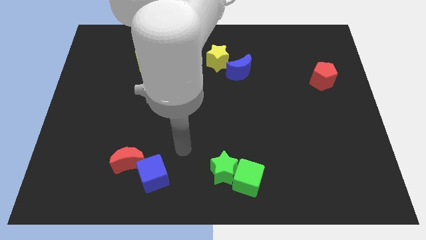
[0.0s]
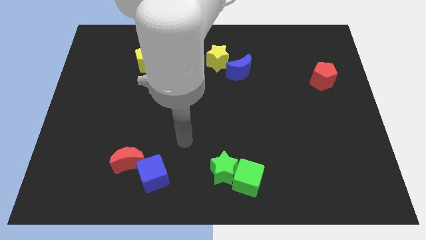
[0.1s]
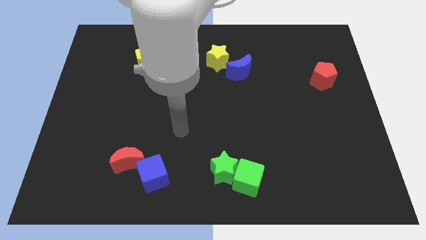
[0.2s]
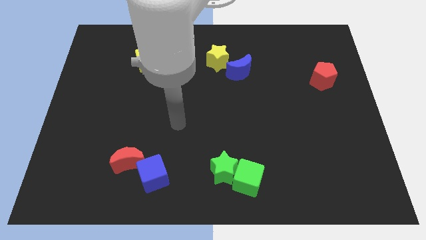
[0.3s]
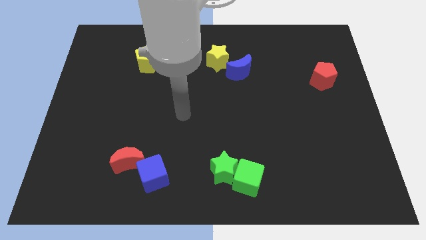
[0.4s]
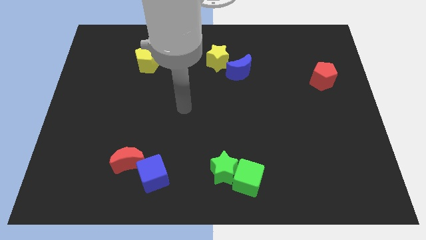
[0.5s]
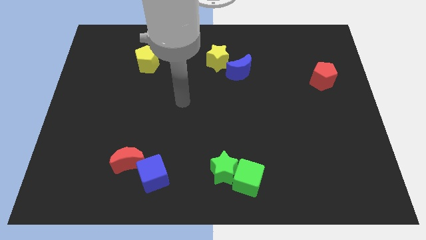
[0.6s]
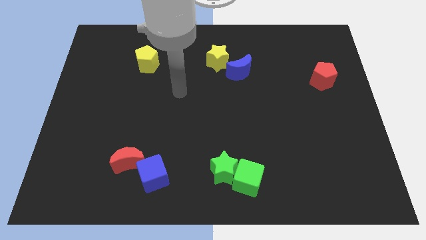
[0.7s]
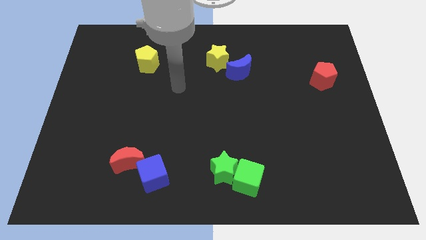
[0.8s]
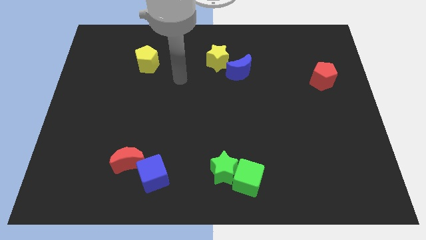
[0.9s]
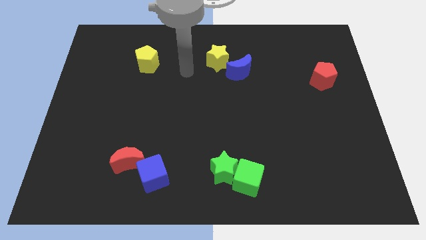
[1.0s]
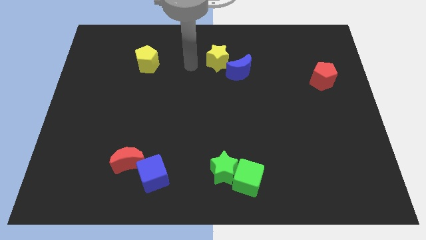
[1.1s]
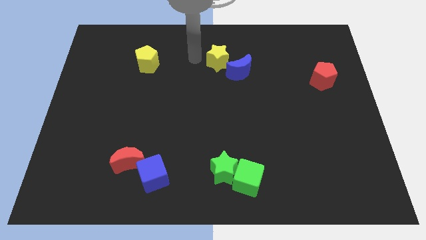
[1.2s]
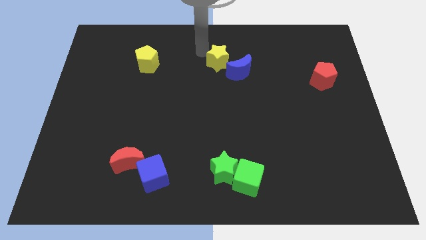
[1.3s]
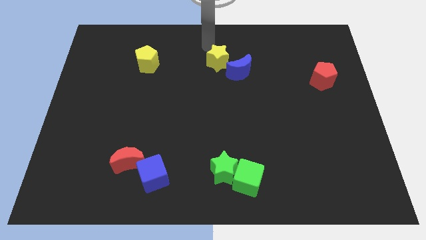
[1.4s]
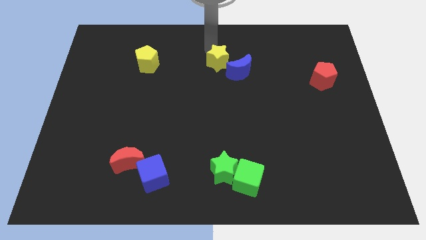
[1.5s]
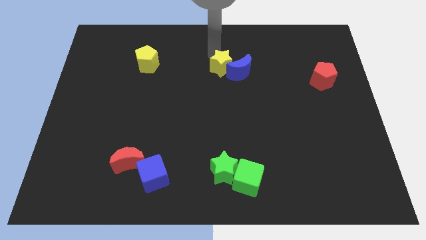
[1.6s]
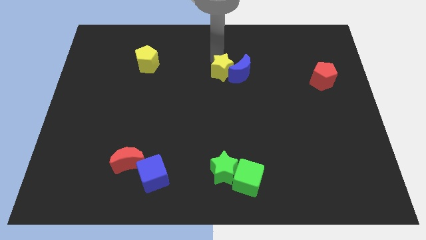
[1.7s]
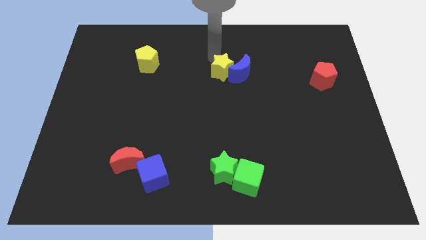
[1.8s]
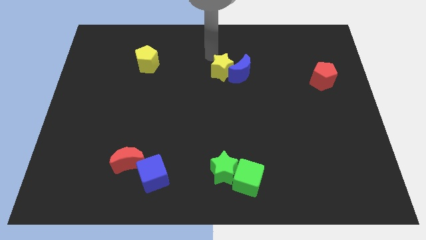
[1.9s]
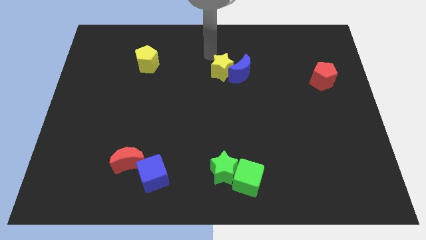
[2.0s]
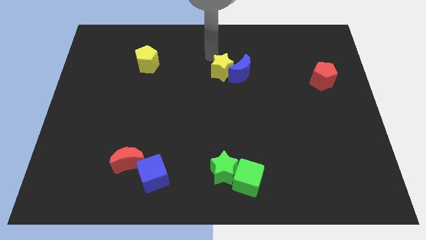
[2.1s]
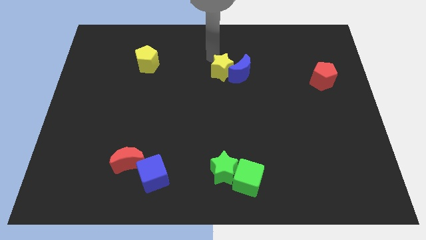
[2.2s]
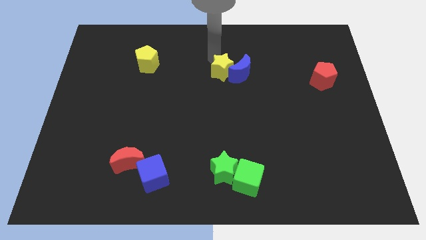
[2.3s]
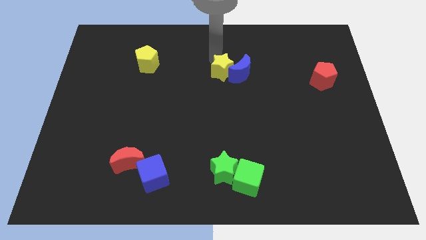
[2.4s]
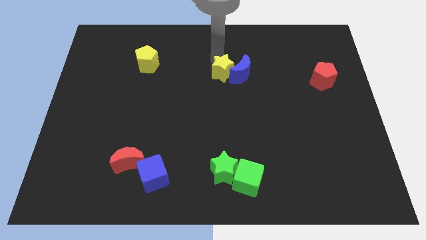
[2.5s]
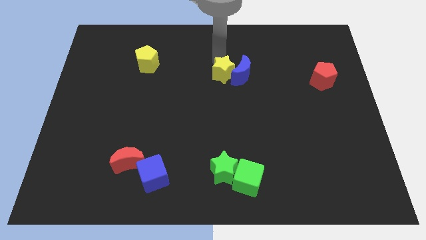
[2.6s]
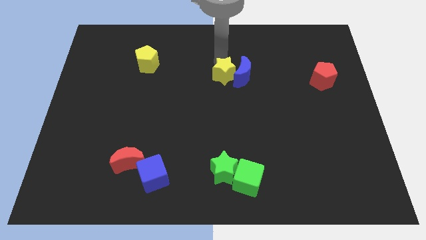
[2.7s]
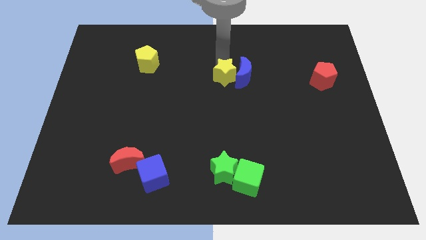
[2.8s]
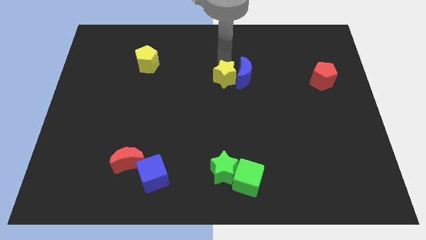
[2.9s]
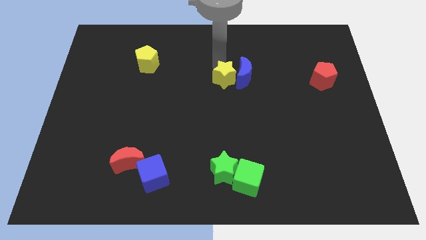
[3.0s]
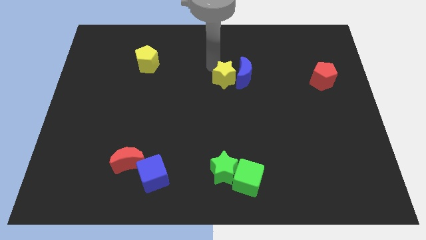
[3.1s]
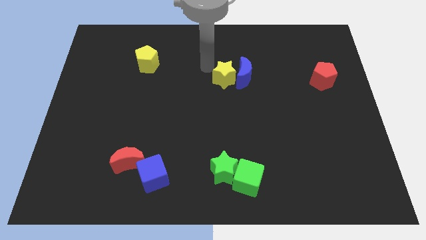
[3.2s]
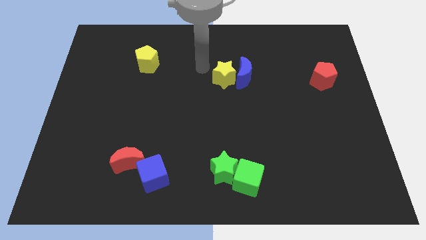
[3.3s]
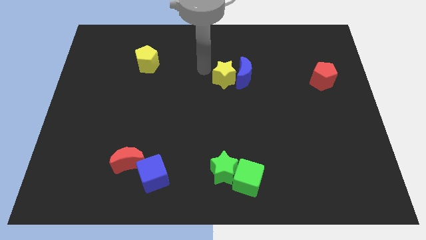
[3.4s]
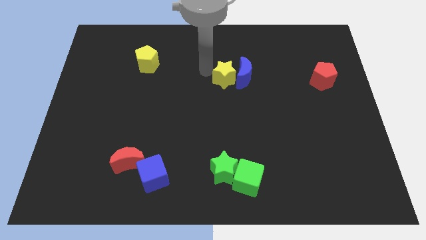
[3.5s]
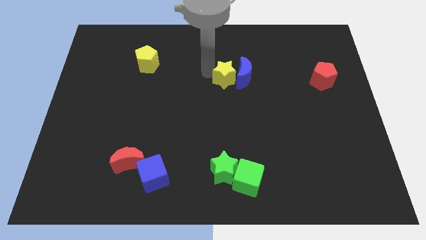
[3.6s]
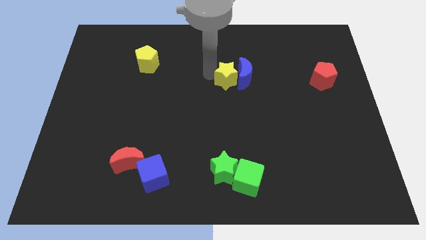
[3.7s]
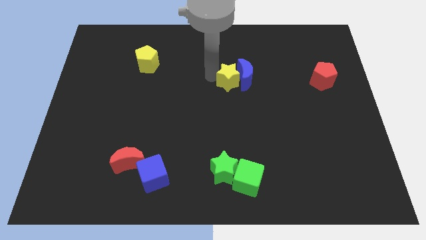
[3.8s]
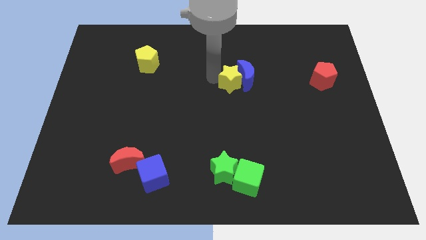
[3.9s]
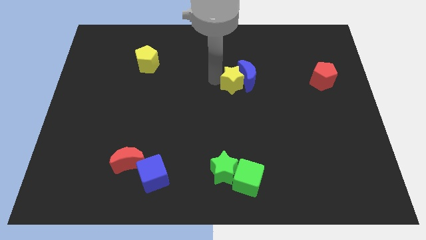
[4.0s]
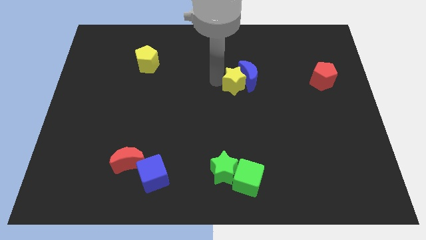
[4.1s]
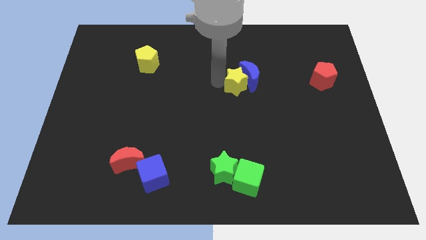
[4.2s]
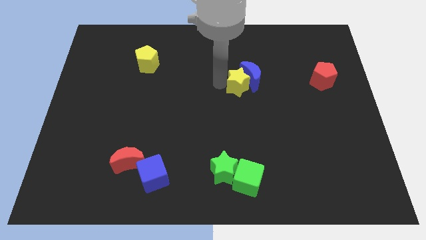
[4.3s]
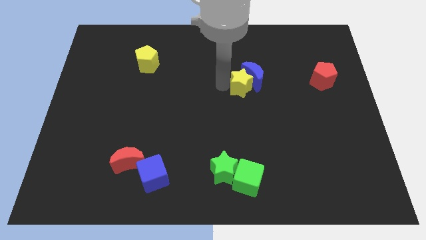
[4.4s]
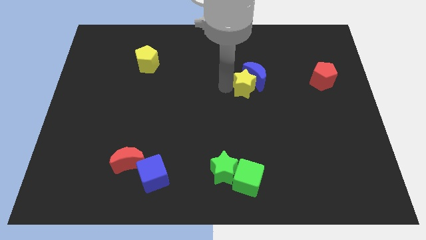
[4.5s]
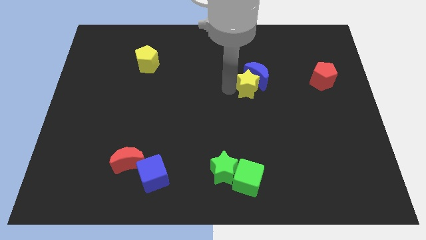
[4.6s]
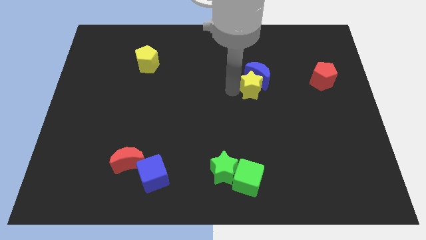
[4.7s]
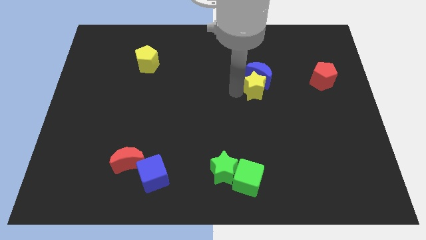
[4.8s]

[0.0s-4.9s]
slide the yellow star to the bottom right side of the blue moon

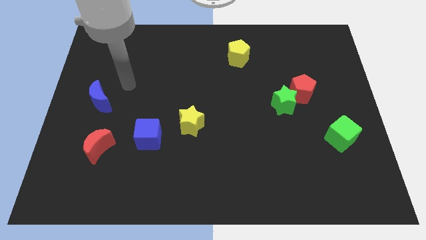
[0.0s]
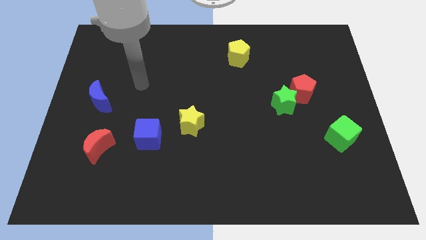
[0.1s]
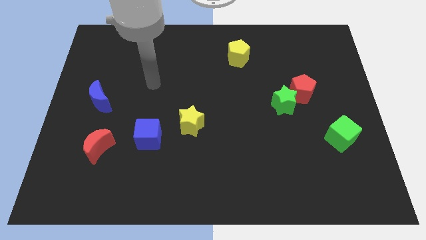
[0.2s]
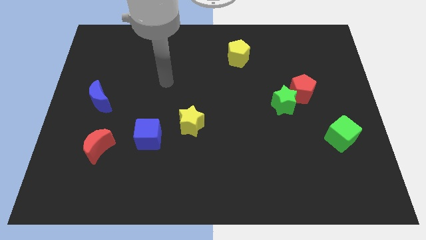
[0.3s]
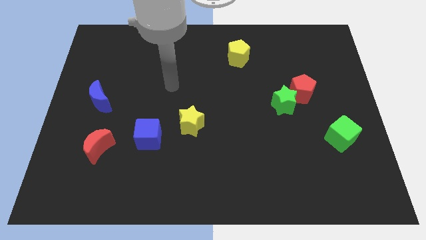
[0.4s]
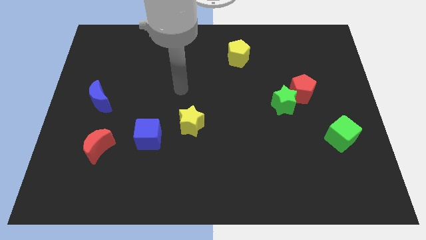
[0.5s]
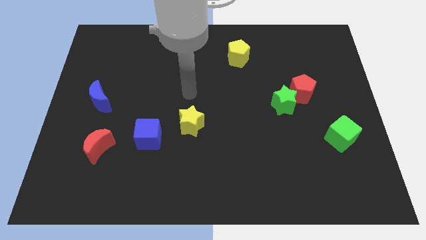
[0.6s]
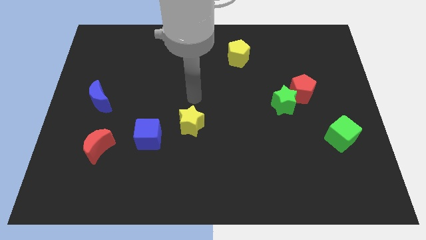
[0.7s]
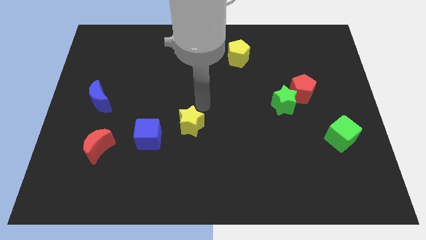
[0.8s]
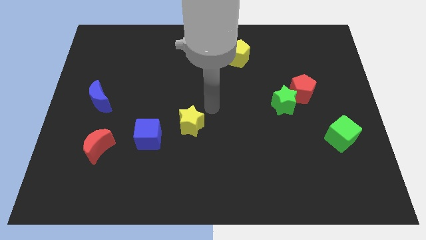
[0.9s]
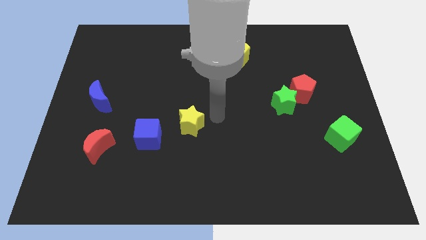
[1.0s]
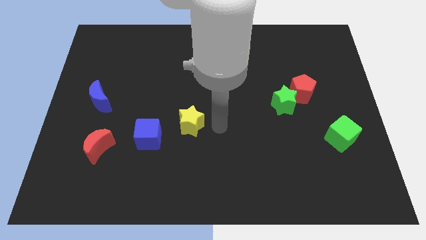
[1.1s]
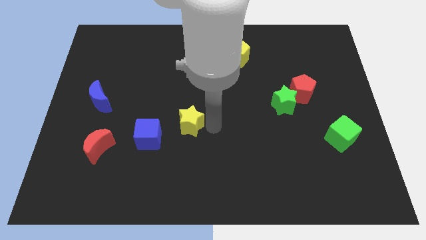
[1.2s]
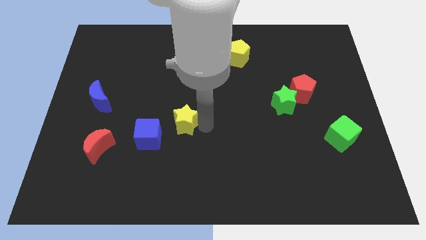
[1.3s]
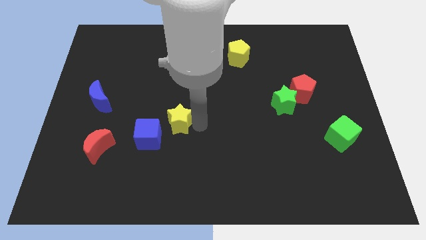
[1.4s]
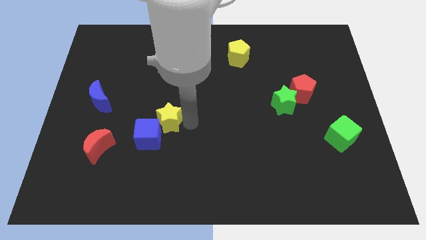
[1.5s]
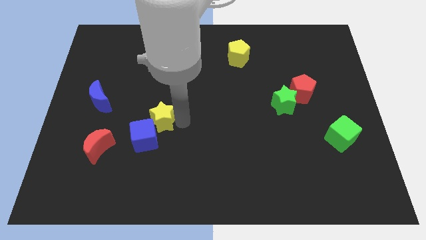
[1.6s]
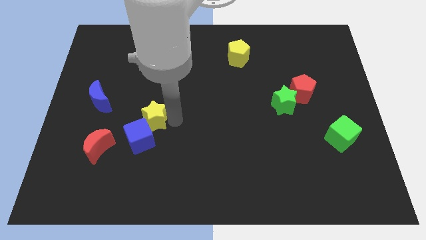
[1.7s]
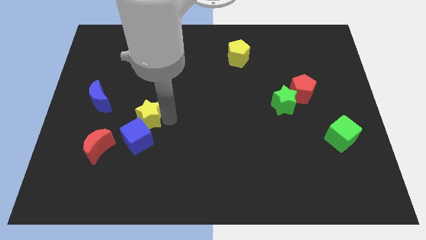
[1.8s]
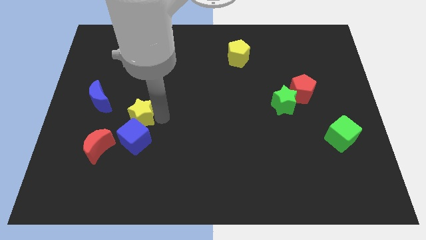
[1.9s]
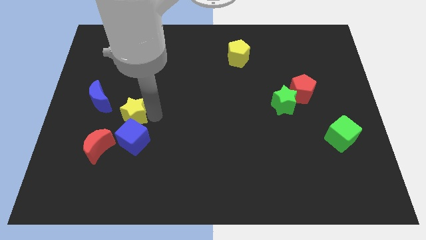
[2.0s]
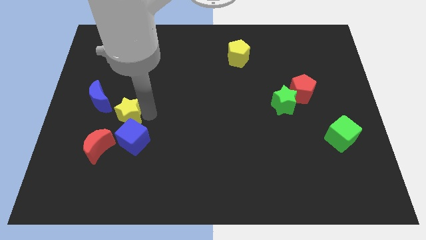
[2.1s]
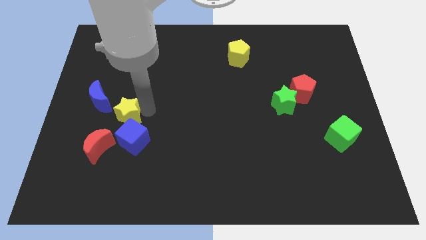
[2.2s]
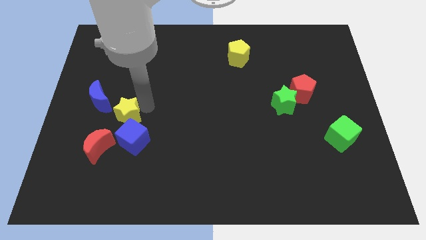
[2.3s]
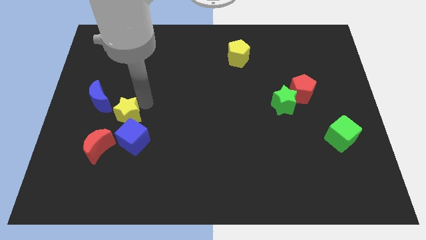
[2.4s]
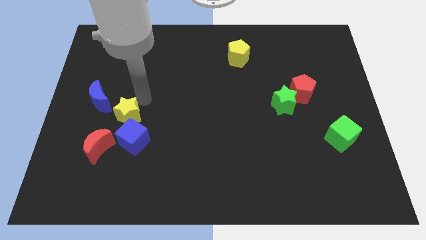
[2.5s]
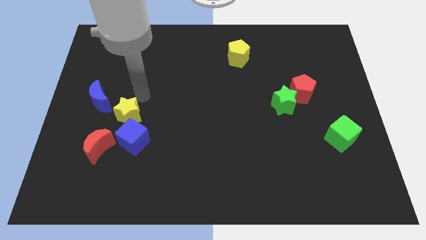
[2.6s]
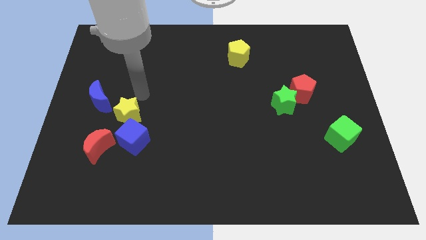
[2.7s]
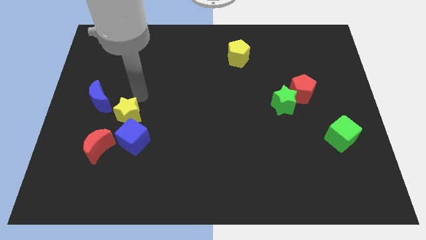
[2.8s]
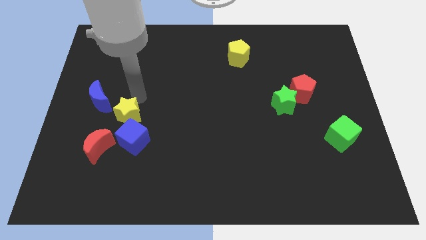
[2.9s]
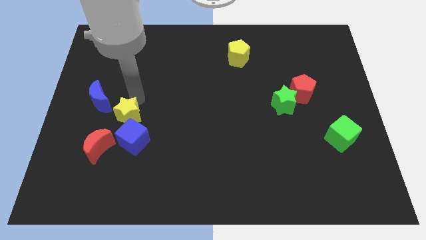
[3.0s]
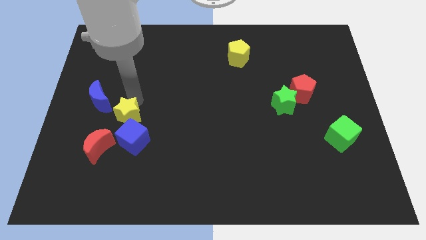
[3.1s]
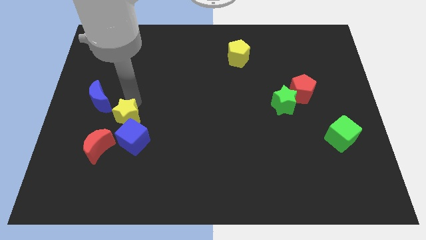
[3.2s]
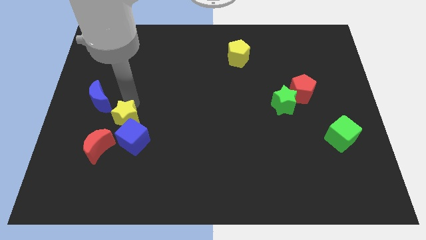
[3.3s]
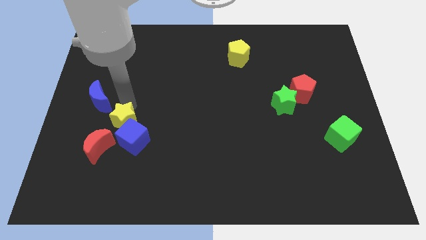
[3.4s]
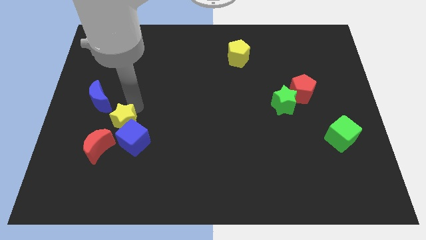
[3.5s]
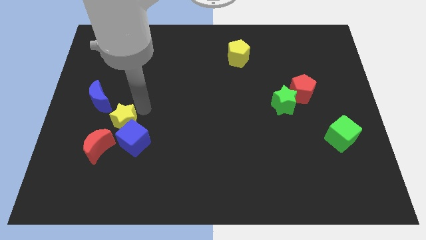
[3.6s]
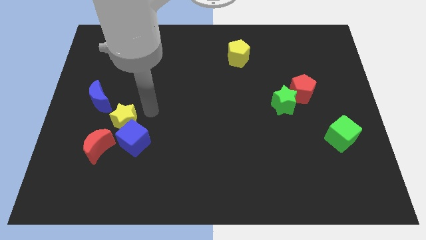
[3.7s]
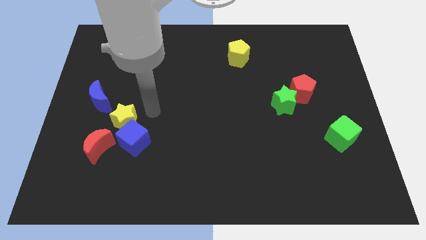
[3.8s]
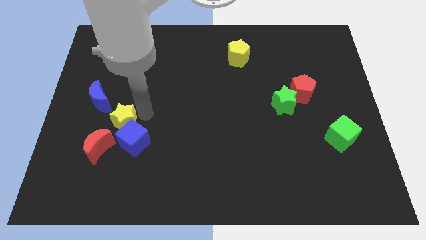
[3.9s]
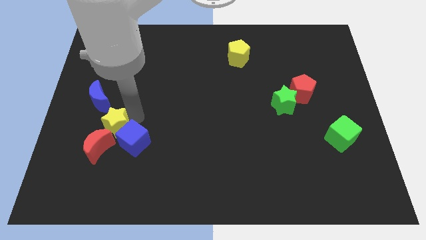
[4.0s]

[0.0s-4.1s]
move the yellow star left of the blue cube
